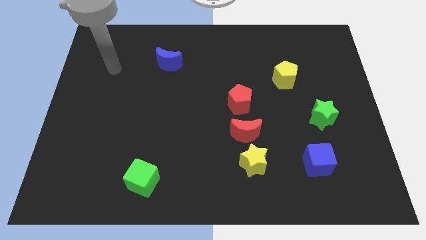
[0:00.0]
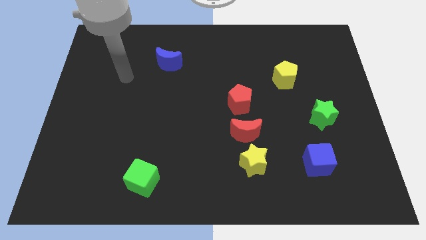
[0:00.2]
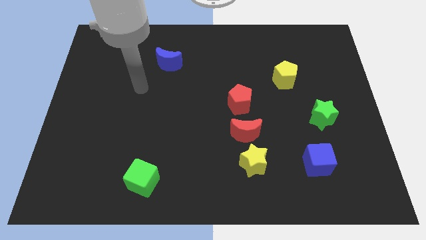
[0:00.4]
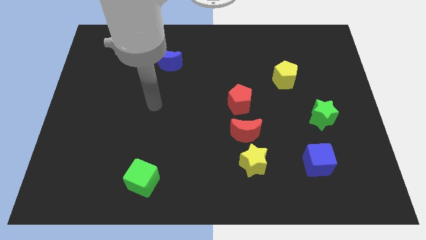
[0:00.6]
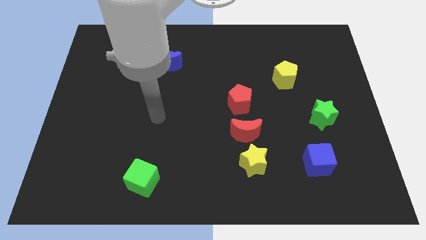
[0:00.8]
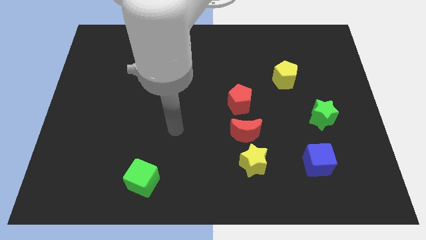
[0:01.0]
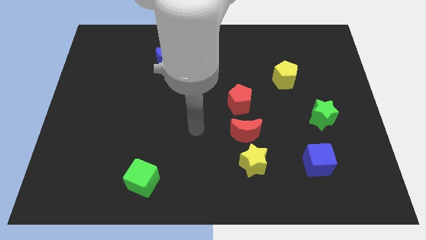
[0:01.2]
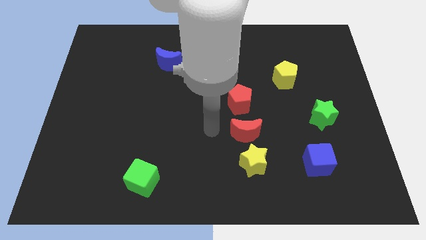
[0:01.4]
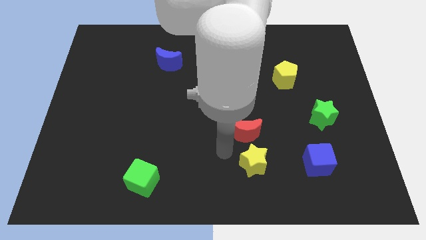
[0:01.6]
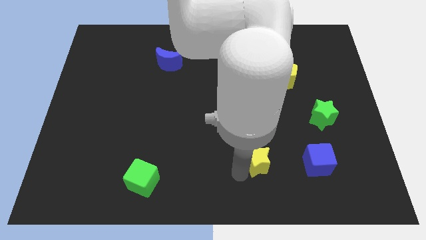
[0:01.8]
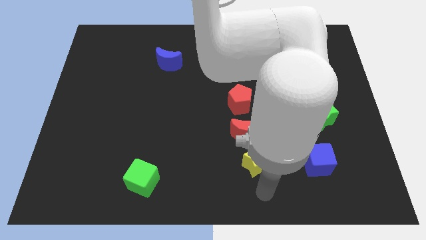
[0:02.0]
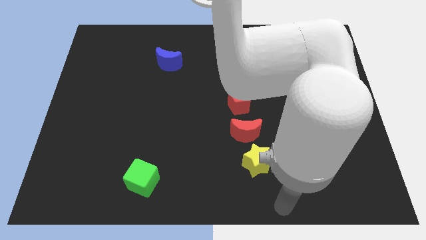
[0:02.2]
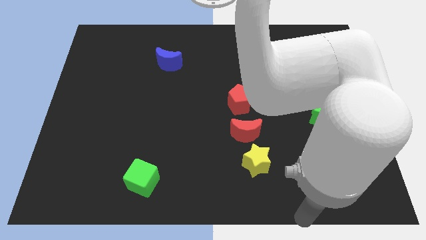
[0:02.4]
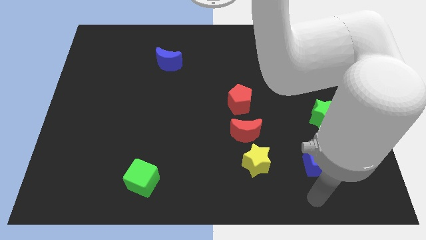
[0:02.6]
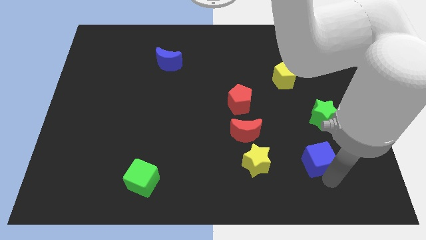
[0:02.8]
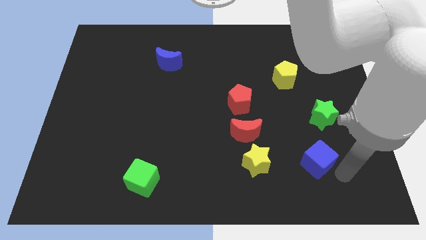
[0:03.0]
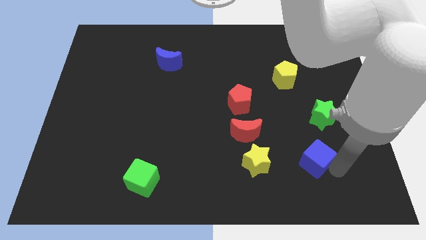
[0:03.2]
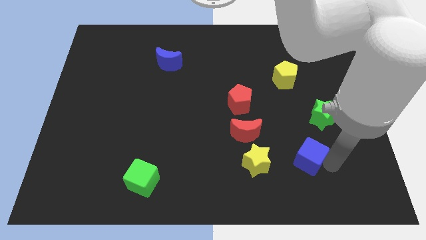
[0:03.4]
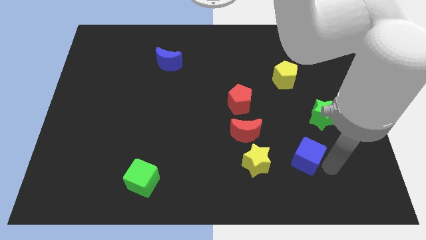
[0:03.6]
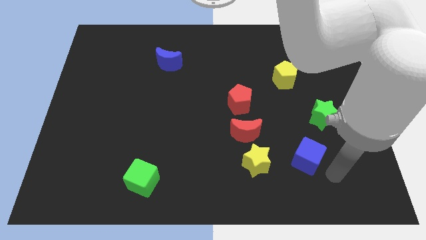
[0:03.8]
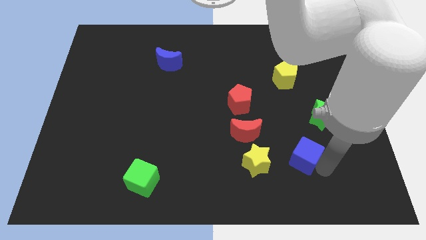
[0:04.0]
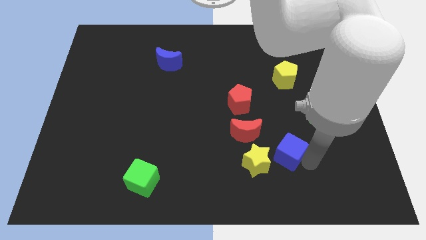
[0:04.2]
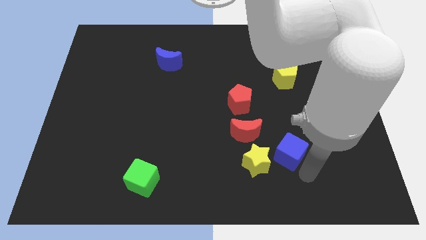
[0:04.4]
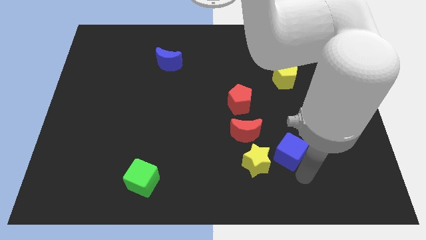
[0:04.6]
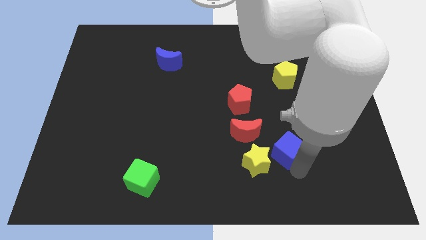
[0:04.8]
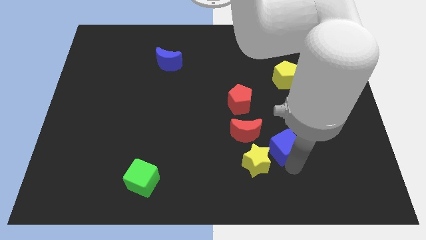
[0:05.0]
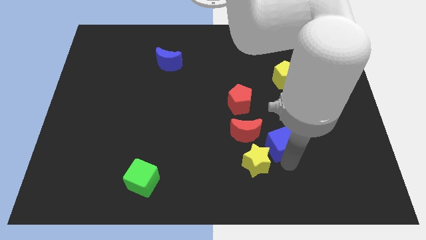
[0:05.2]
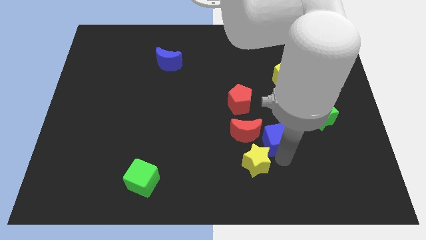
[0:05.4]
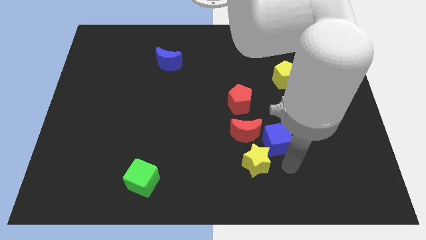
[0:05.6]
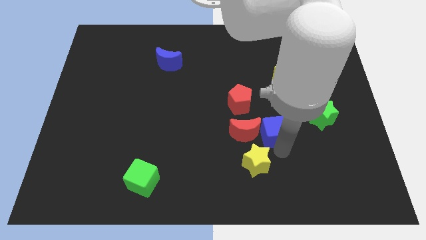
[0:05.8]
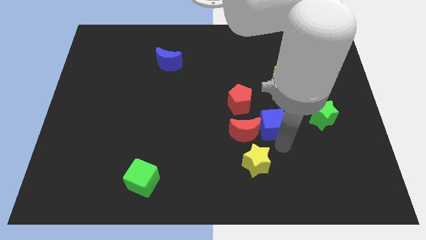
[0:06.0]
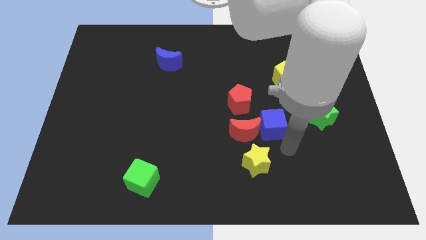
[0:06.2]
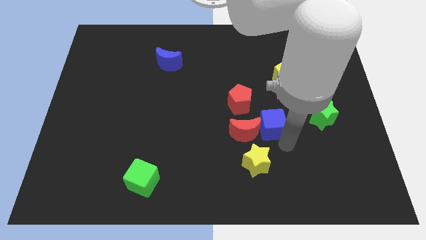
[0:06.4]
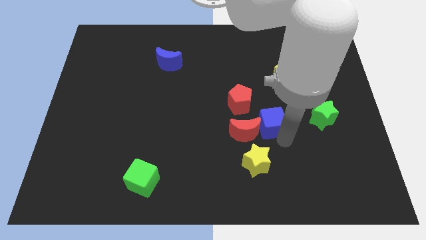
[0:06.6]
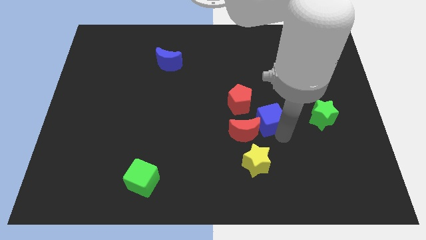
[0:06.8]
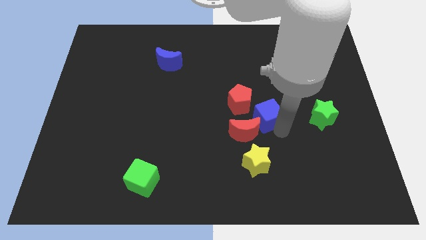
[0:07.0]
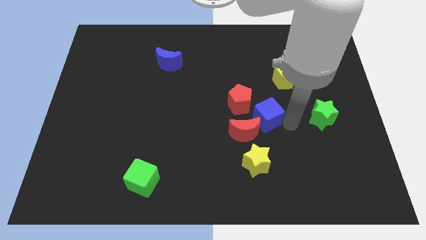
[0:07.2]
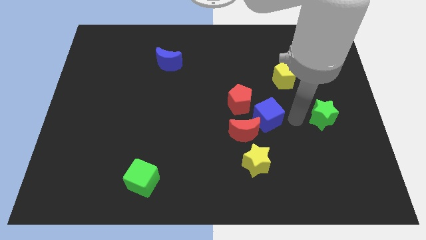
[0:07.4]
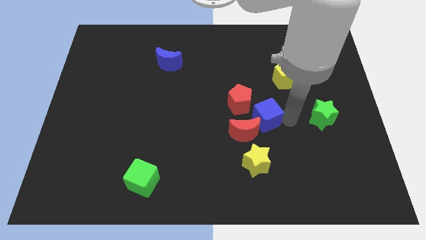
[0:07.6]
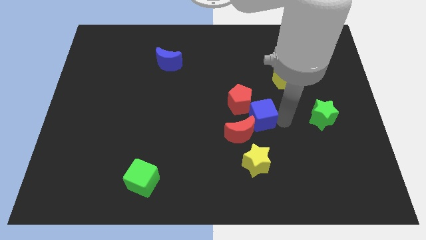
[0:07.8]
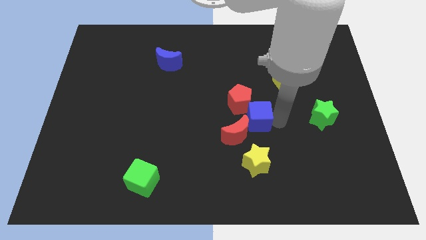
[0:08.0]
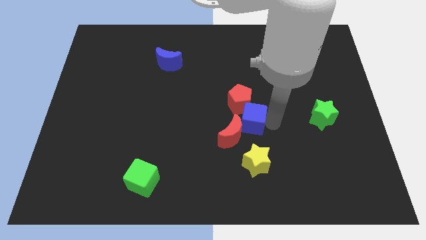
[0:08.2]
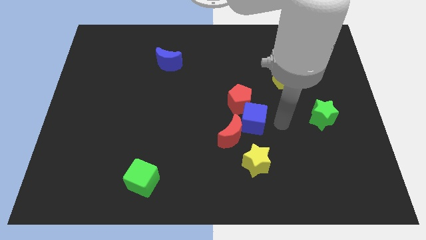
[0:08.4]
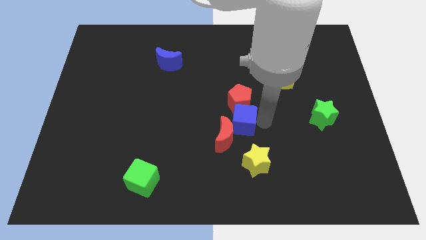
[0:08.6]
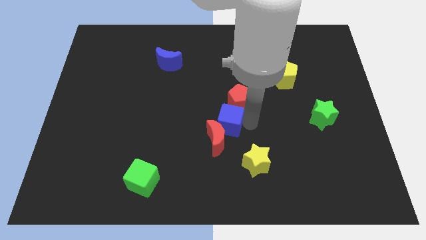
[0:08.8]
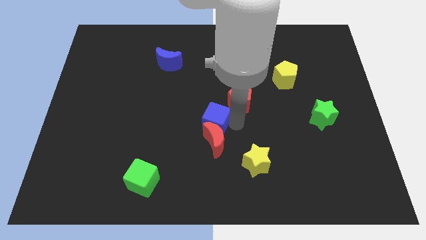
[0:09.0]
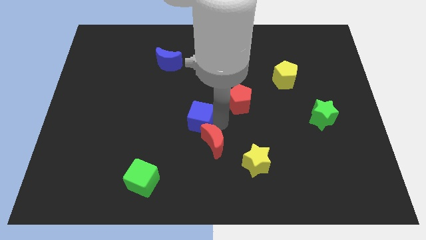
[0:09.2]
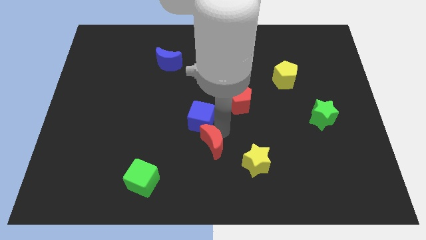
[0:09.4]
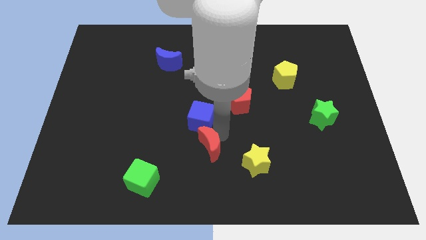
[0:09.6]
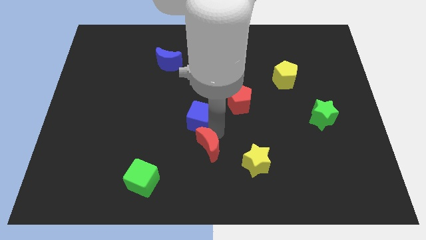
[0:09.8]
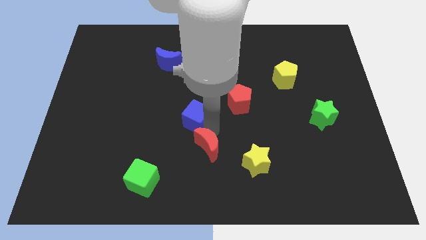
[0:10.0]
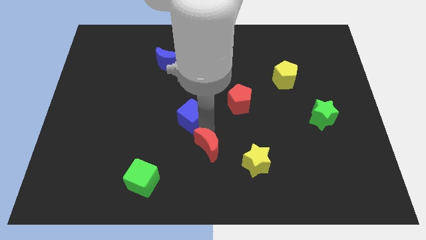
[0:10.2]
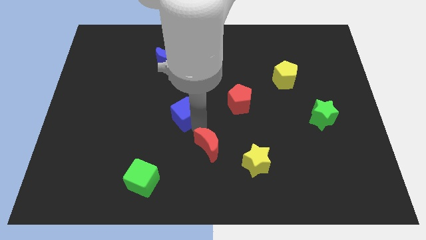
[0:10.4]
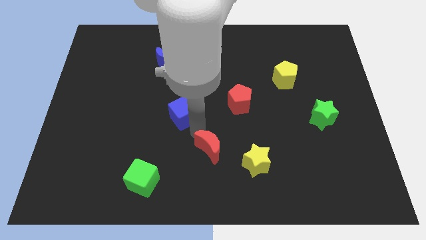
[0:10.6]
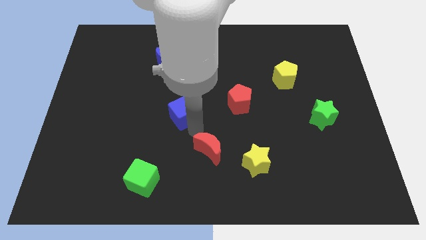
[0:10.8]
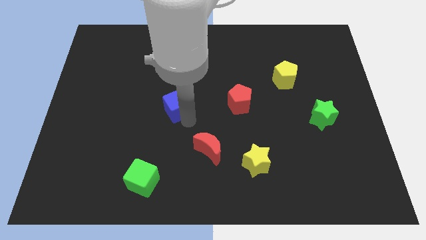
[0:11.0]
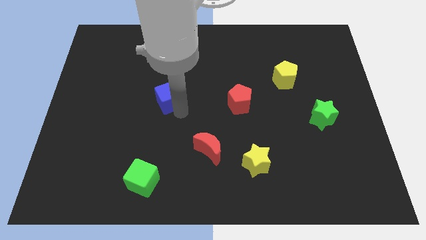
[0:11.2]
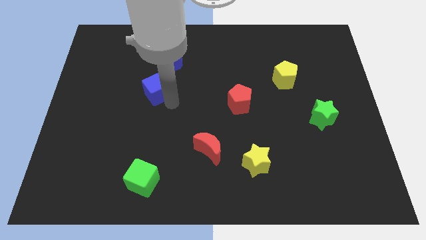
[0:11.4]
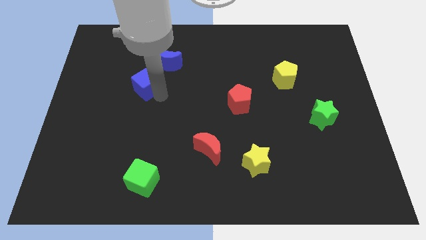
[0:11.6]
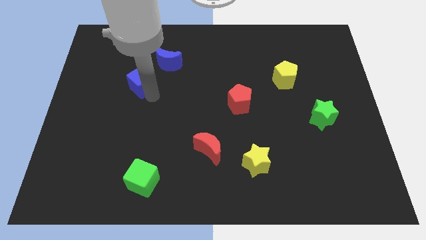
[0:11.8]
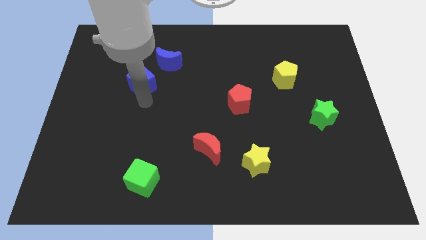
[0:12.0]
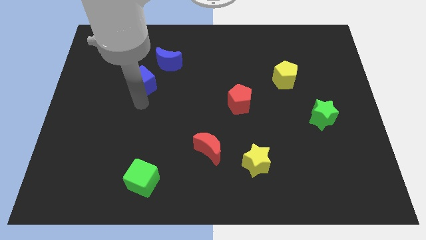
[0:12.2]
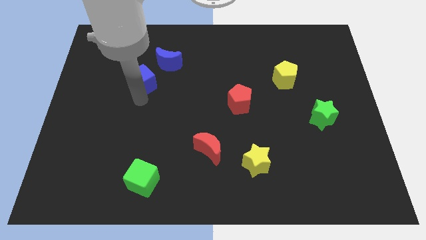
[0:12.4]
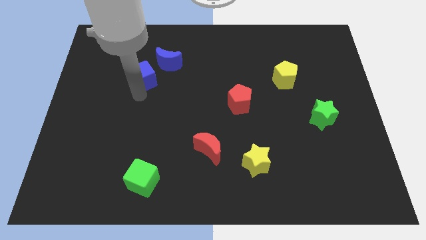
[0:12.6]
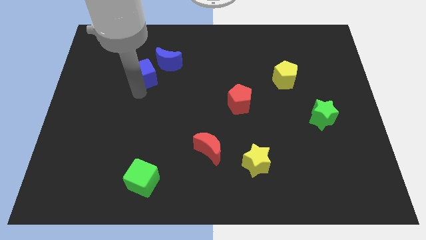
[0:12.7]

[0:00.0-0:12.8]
put the blue cube to the left of the blue moon

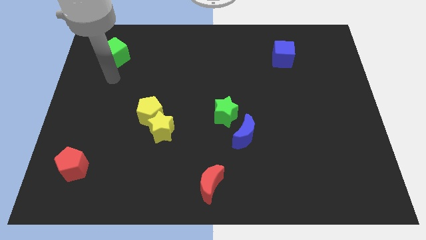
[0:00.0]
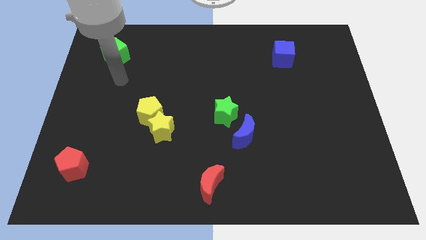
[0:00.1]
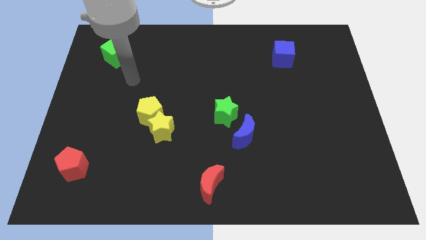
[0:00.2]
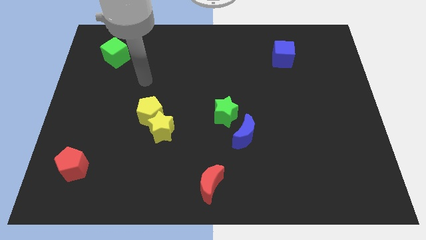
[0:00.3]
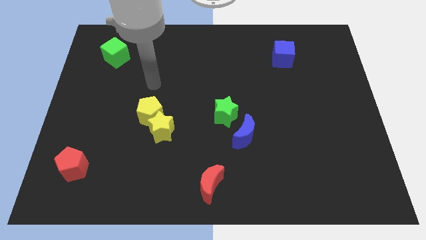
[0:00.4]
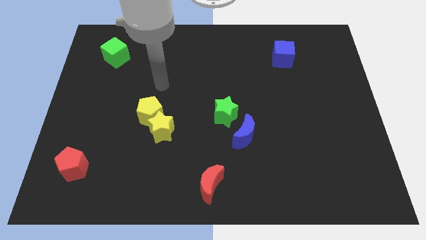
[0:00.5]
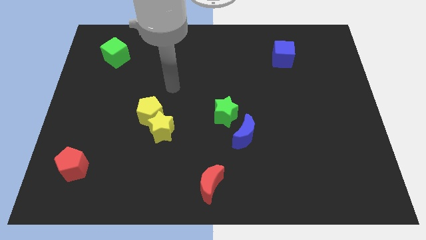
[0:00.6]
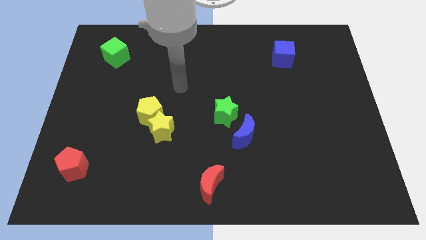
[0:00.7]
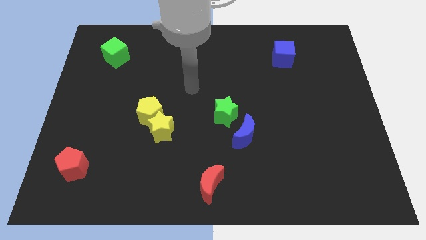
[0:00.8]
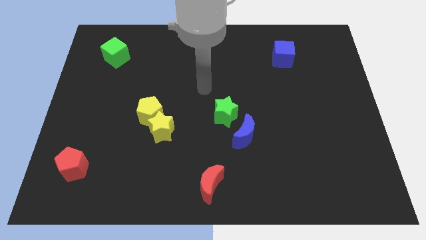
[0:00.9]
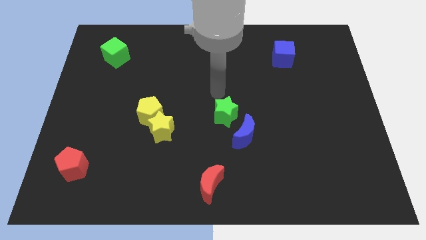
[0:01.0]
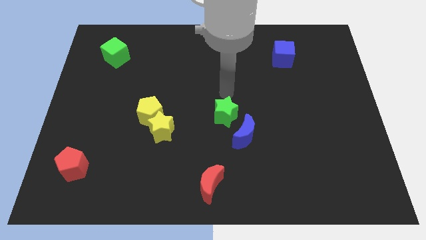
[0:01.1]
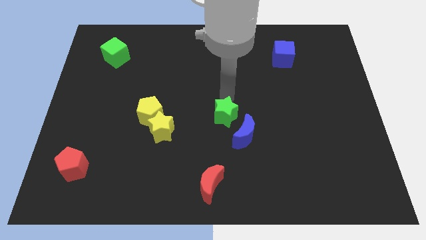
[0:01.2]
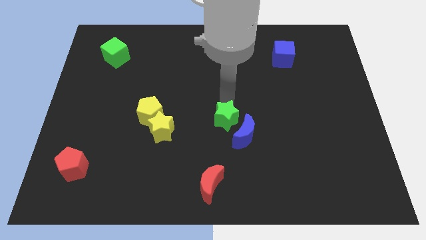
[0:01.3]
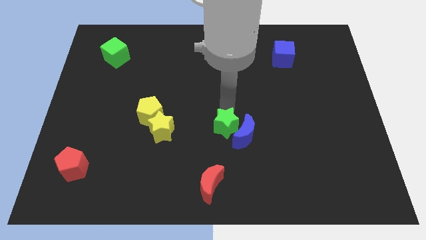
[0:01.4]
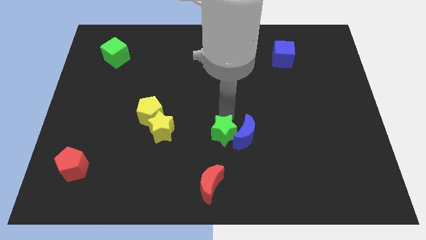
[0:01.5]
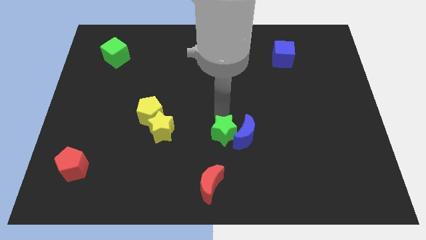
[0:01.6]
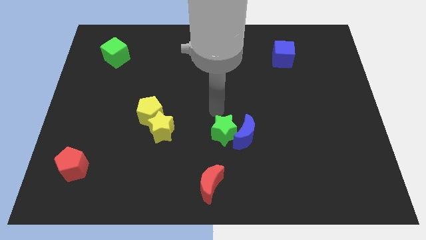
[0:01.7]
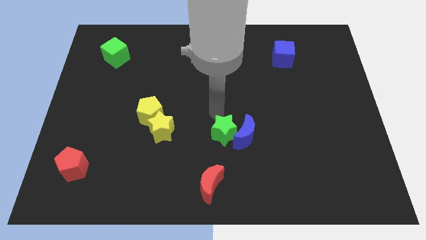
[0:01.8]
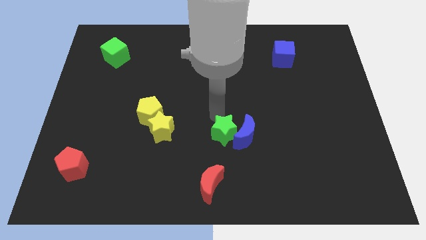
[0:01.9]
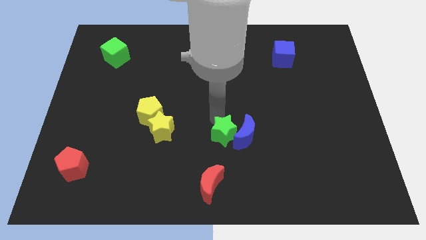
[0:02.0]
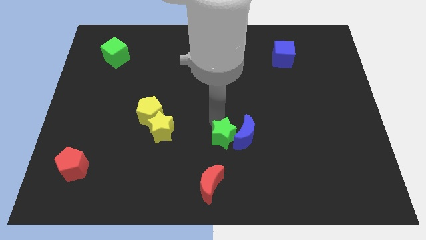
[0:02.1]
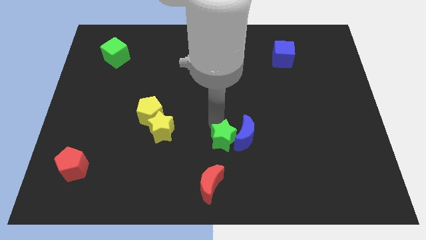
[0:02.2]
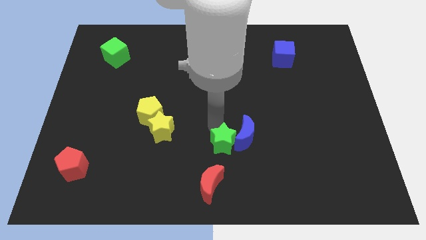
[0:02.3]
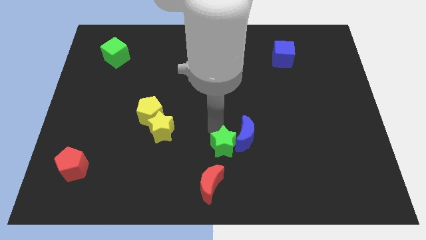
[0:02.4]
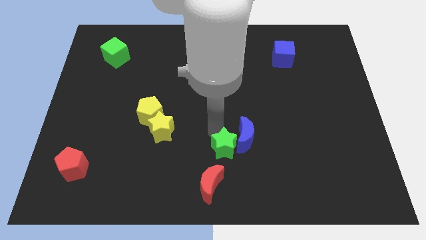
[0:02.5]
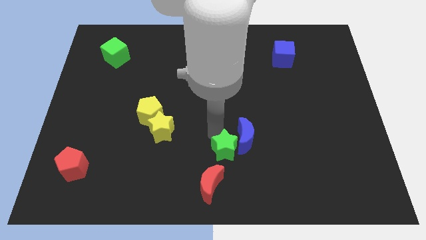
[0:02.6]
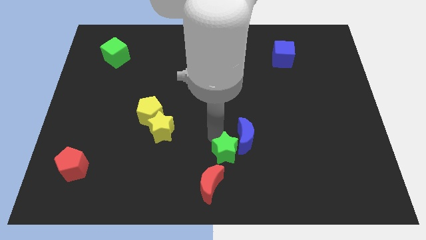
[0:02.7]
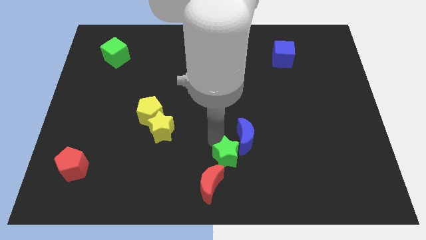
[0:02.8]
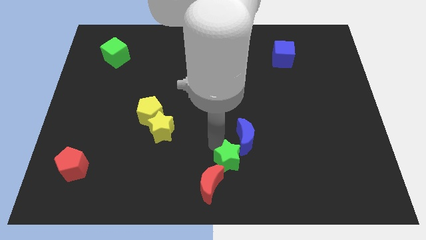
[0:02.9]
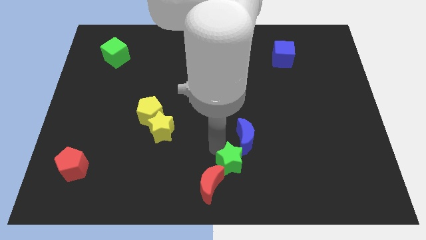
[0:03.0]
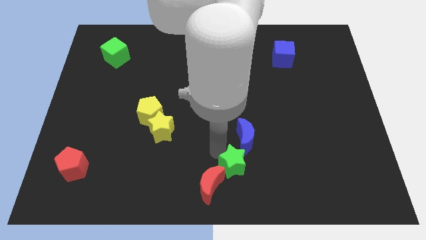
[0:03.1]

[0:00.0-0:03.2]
push the green star just right of the red moon
